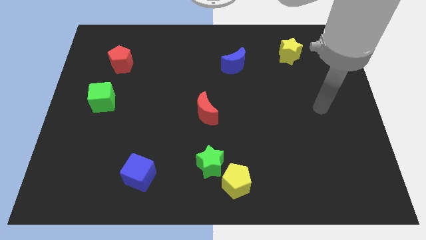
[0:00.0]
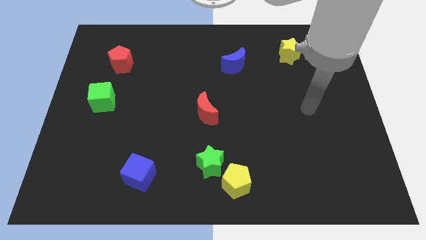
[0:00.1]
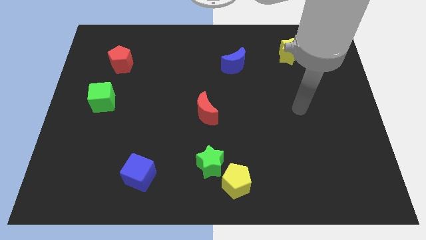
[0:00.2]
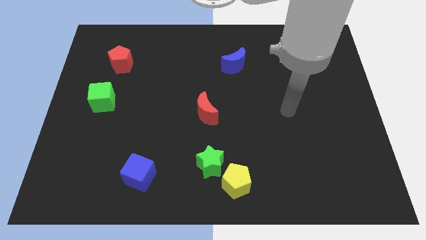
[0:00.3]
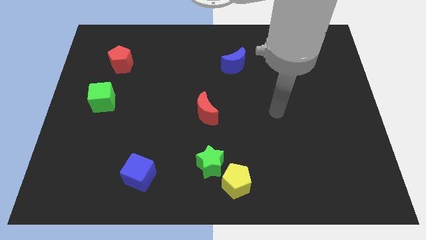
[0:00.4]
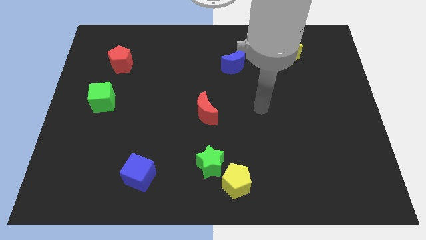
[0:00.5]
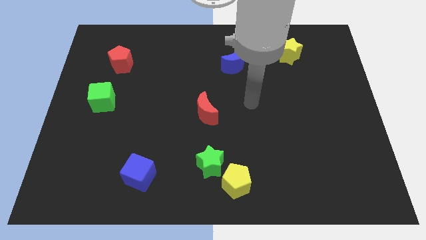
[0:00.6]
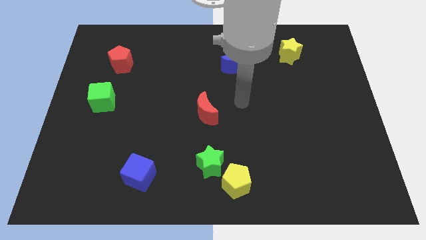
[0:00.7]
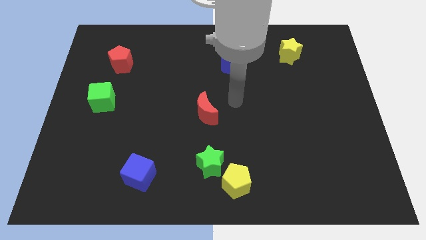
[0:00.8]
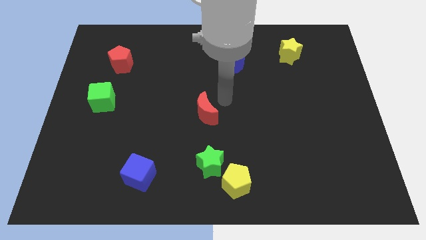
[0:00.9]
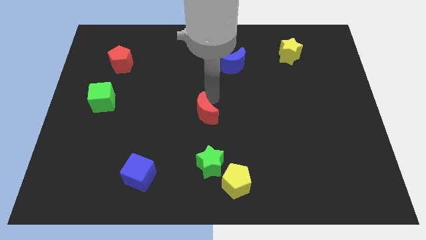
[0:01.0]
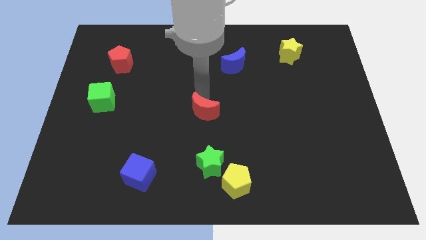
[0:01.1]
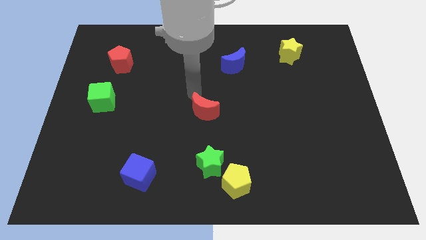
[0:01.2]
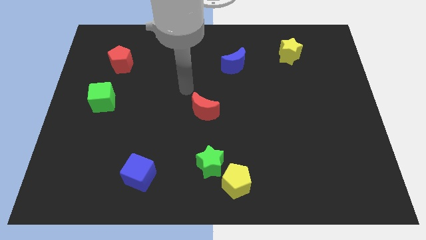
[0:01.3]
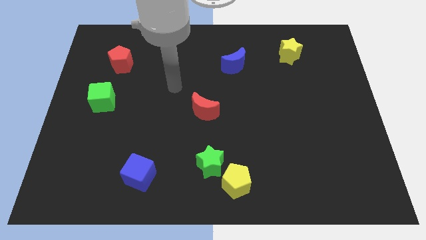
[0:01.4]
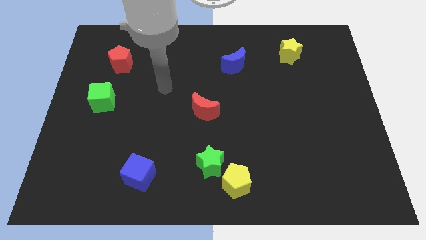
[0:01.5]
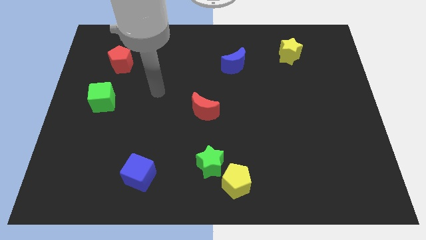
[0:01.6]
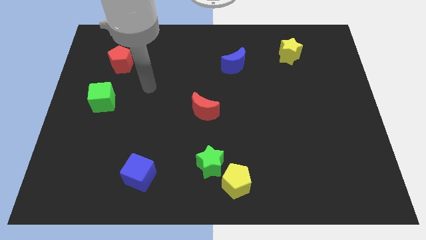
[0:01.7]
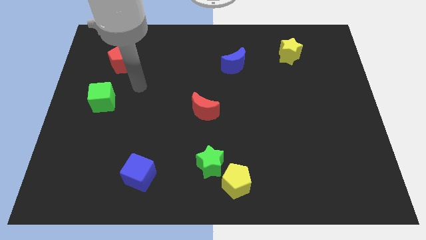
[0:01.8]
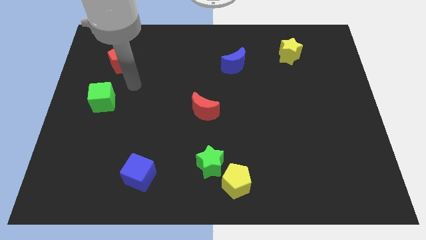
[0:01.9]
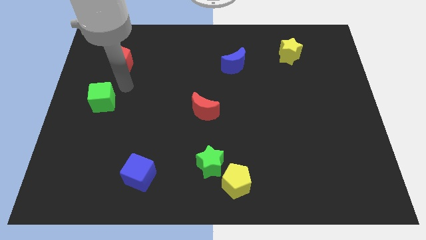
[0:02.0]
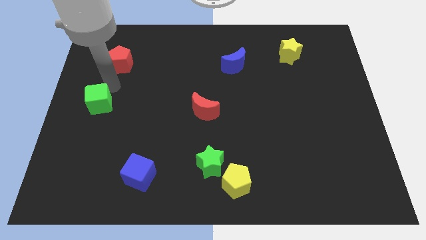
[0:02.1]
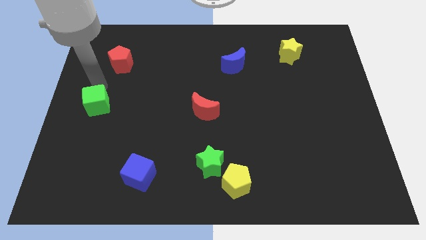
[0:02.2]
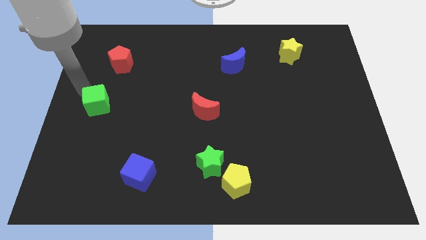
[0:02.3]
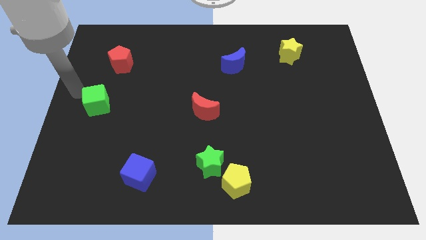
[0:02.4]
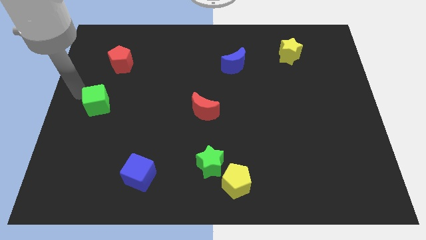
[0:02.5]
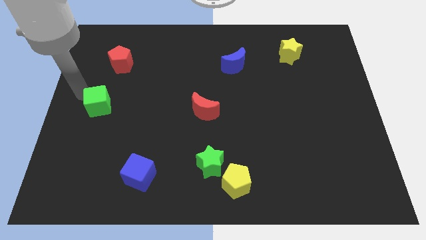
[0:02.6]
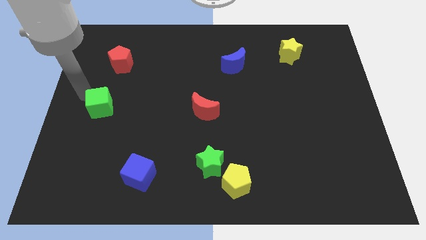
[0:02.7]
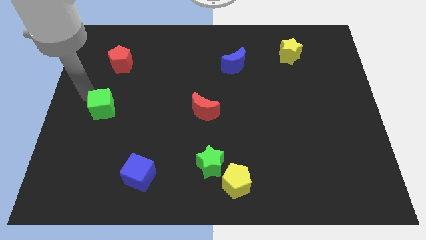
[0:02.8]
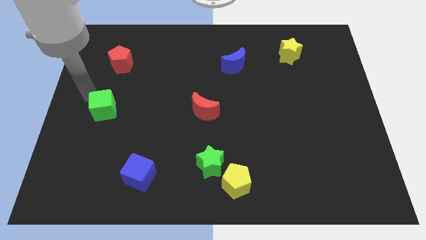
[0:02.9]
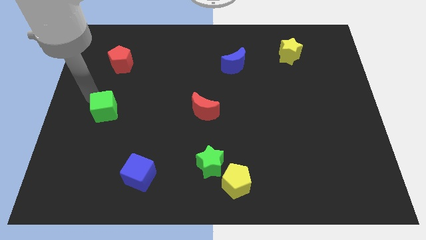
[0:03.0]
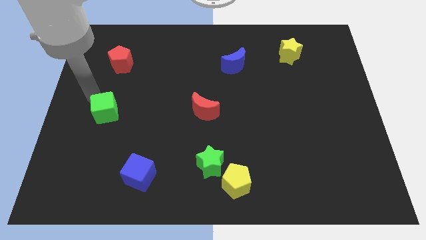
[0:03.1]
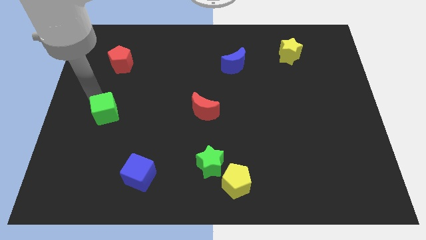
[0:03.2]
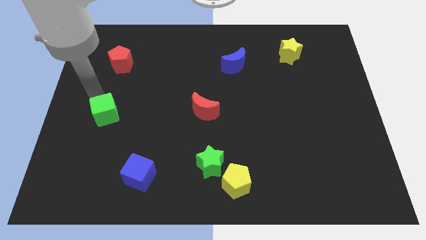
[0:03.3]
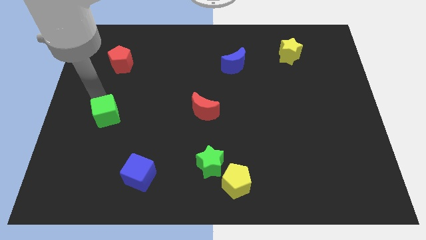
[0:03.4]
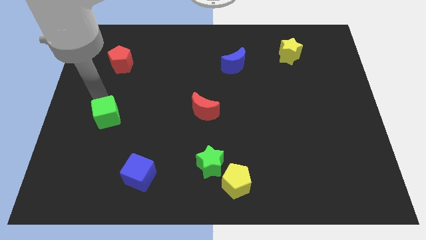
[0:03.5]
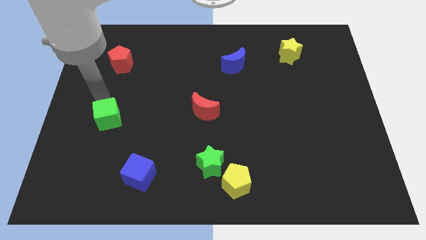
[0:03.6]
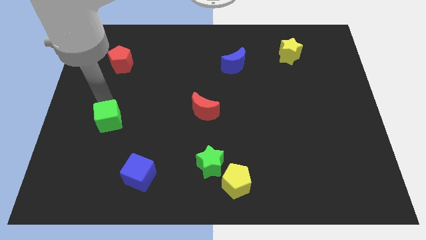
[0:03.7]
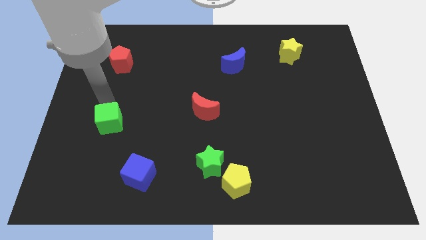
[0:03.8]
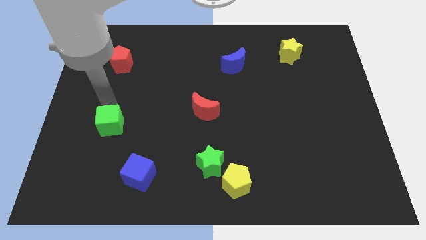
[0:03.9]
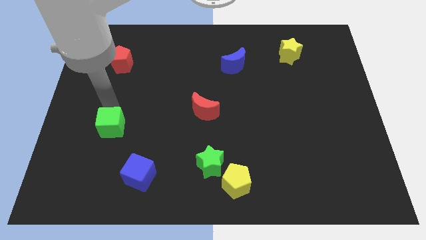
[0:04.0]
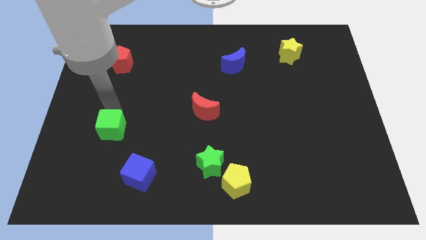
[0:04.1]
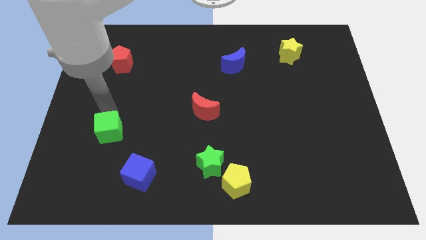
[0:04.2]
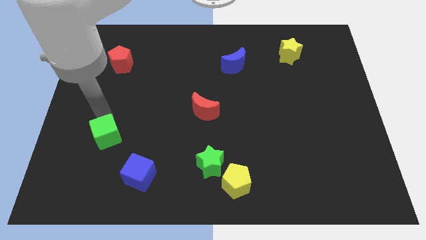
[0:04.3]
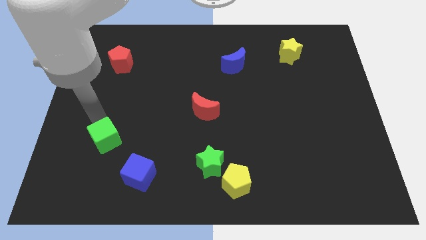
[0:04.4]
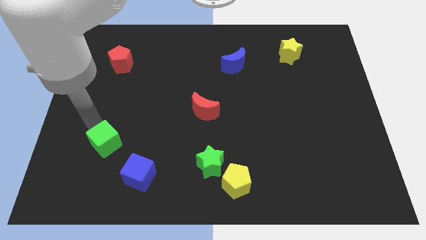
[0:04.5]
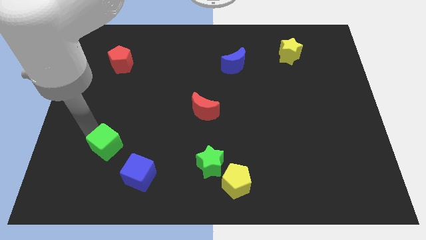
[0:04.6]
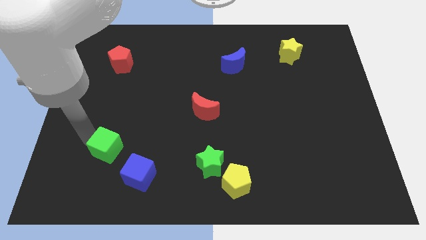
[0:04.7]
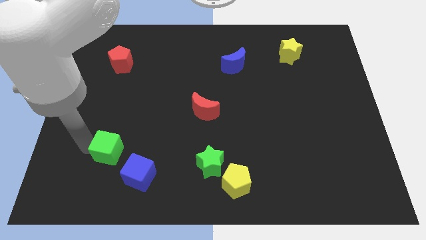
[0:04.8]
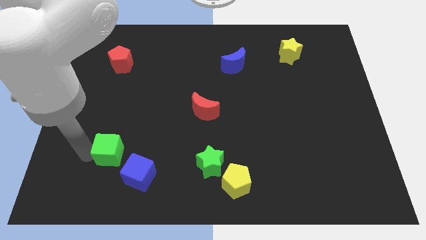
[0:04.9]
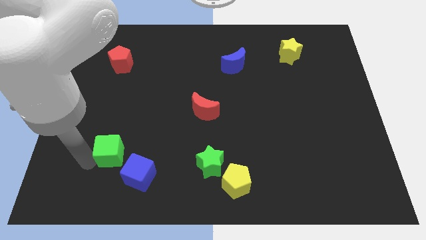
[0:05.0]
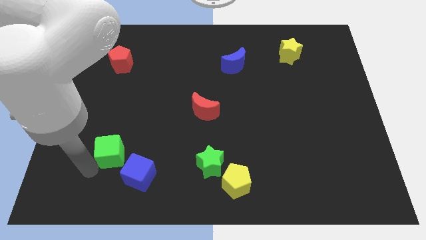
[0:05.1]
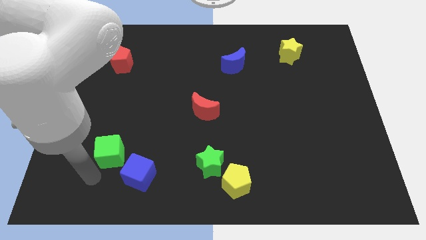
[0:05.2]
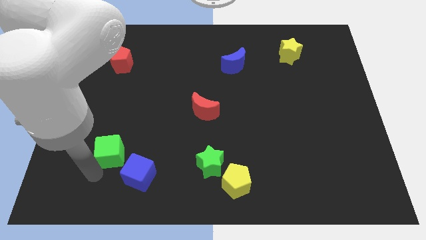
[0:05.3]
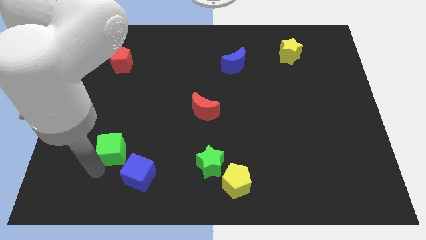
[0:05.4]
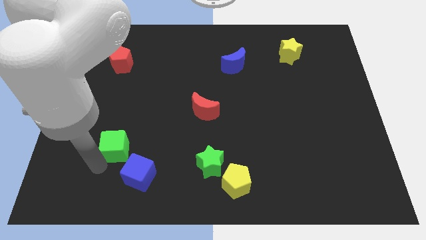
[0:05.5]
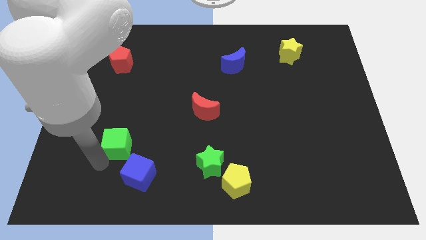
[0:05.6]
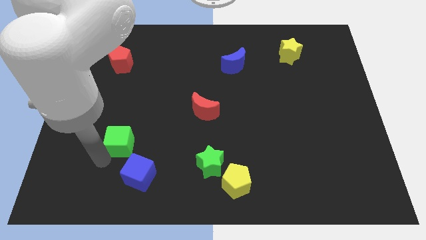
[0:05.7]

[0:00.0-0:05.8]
slide the green cube to the top side of the blue cube

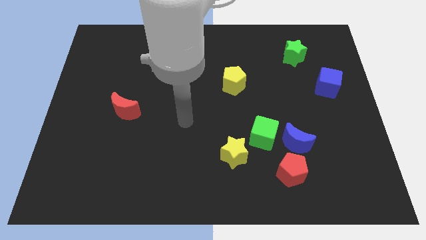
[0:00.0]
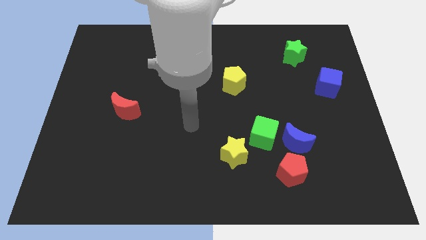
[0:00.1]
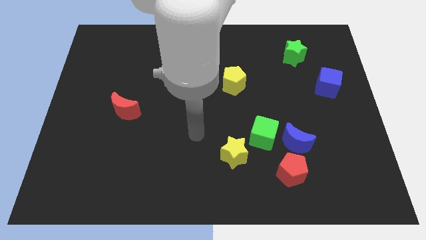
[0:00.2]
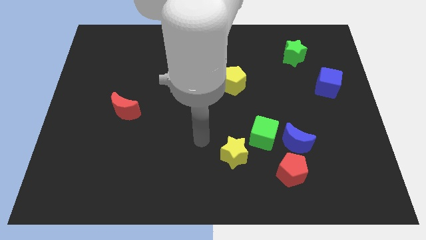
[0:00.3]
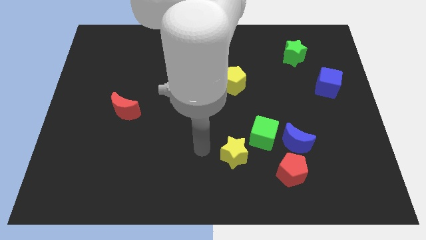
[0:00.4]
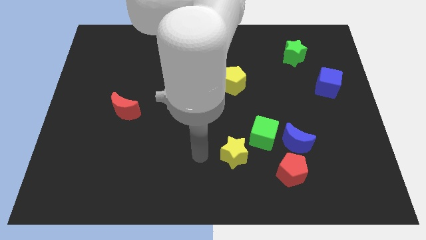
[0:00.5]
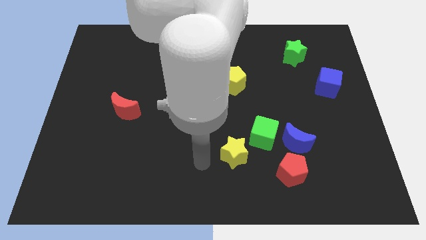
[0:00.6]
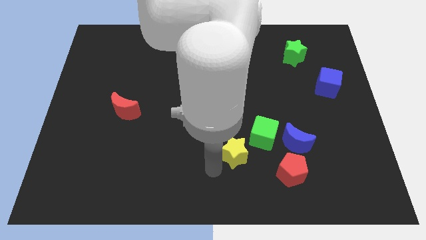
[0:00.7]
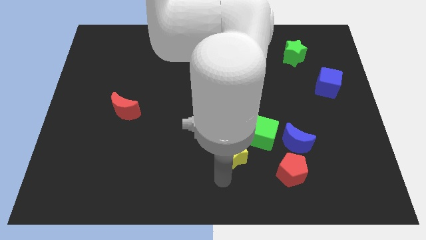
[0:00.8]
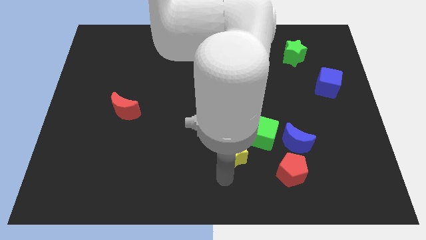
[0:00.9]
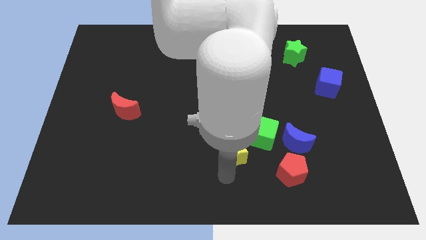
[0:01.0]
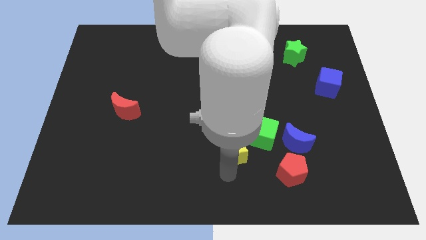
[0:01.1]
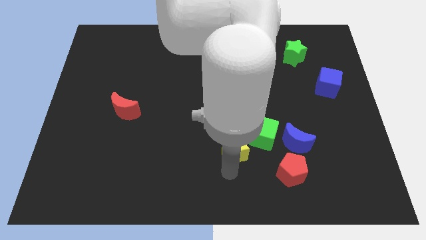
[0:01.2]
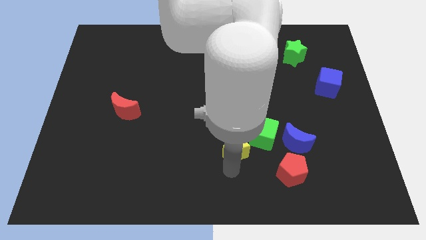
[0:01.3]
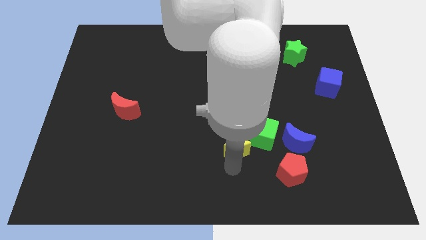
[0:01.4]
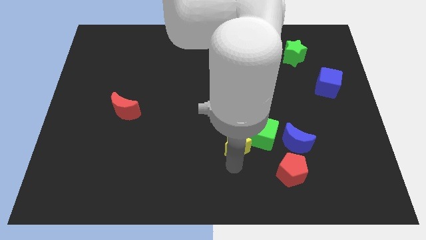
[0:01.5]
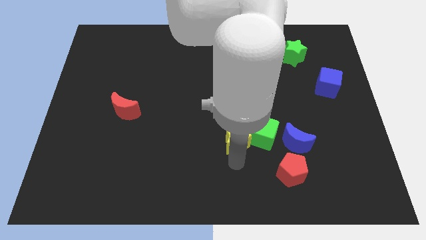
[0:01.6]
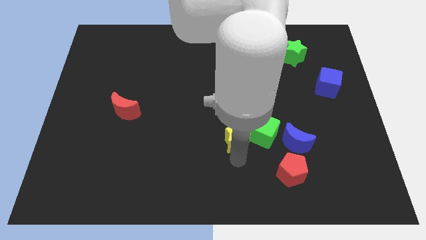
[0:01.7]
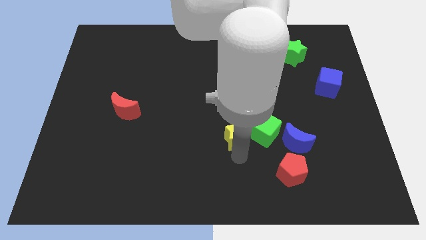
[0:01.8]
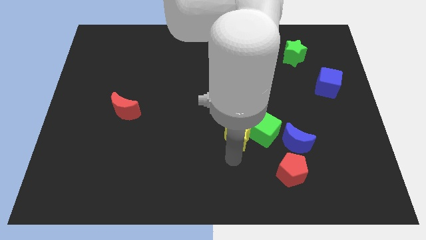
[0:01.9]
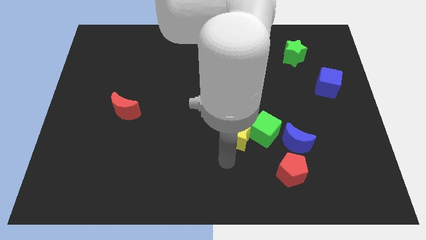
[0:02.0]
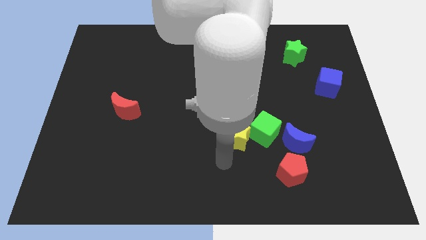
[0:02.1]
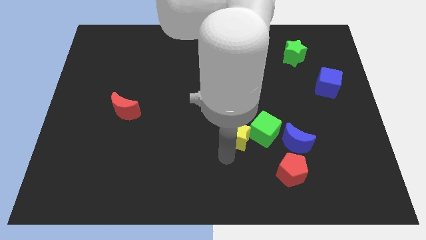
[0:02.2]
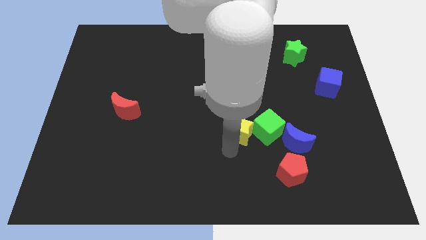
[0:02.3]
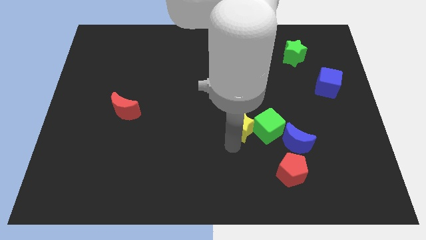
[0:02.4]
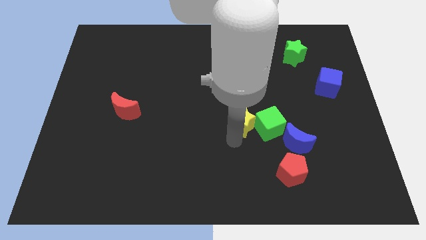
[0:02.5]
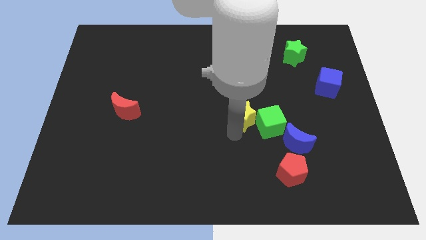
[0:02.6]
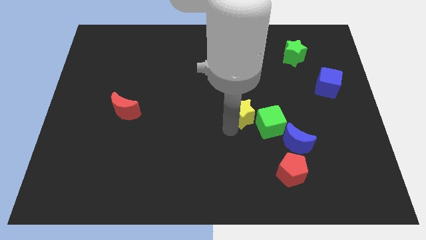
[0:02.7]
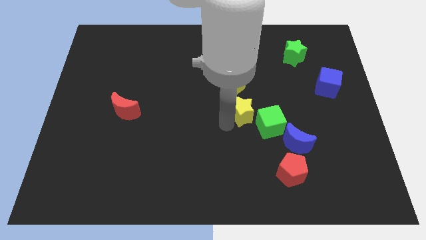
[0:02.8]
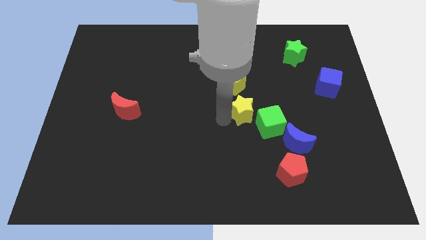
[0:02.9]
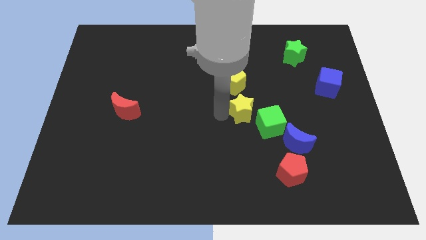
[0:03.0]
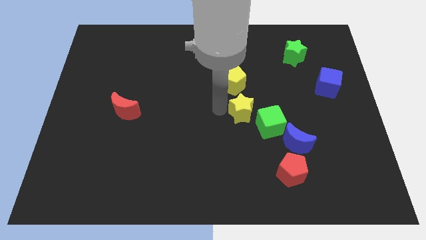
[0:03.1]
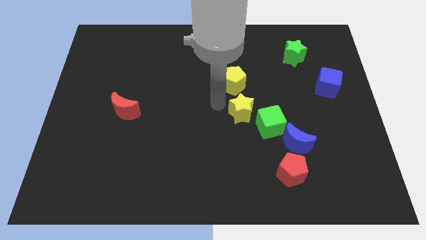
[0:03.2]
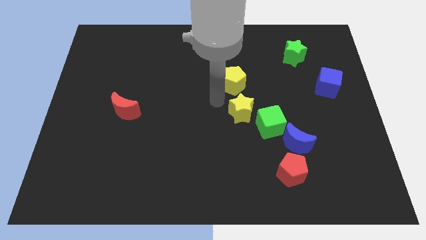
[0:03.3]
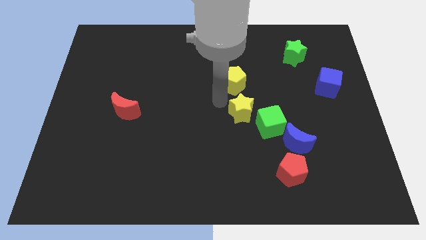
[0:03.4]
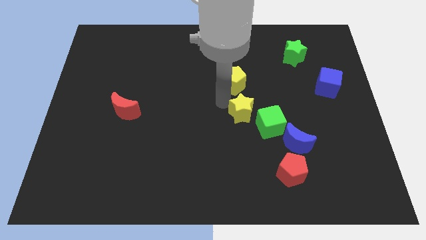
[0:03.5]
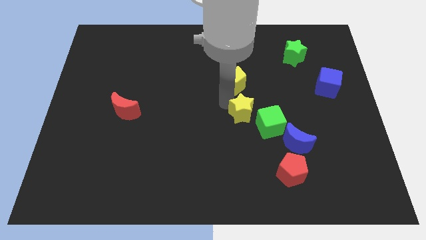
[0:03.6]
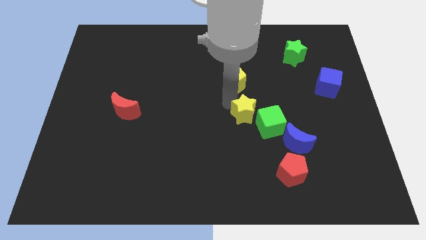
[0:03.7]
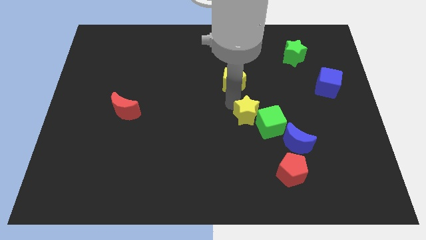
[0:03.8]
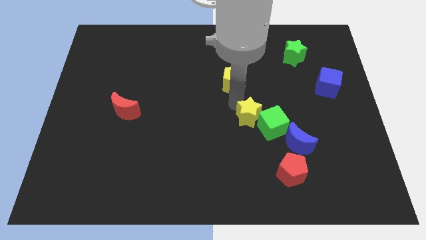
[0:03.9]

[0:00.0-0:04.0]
slide the yellow star to the top left side of the blue moon
